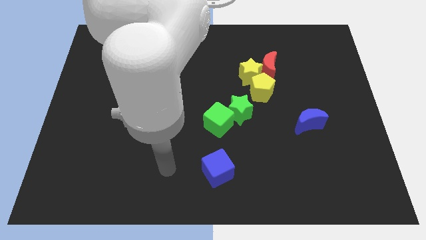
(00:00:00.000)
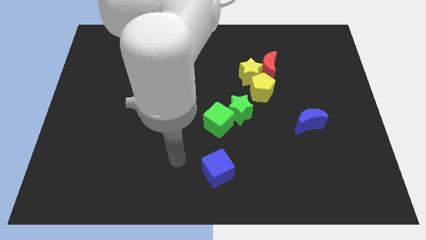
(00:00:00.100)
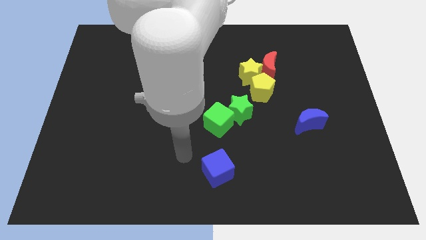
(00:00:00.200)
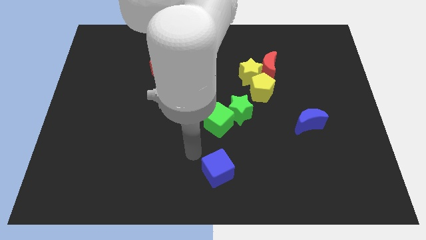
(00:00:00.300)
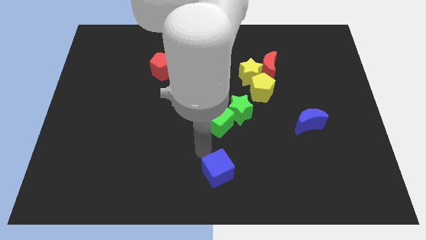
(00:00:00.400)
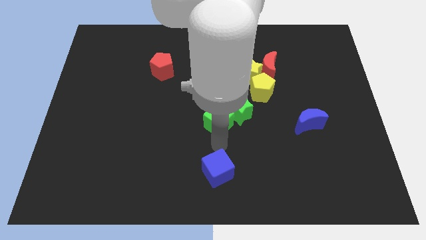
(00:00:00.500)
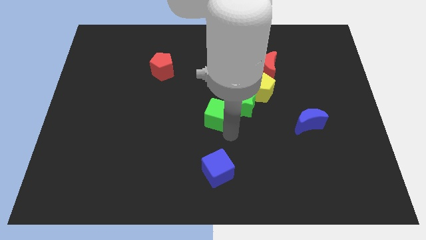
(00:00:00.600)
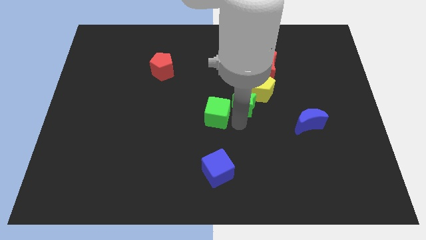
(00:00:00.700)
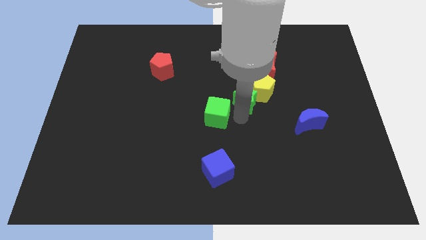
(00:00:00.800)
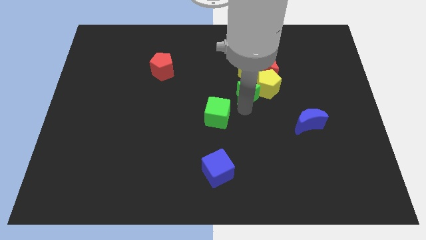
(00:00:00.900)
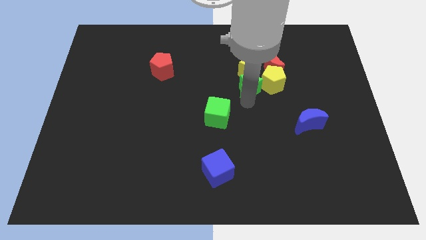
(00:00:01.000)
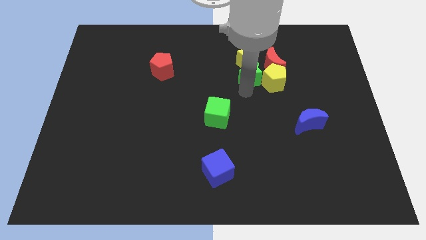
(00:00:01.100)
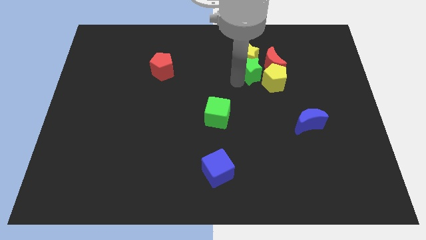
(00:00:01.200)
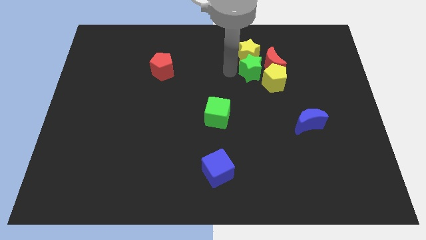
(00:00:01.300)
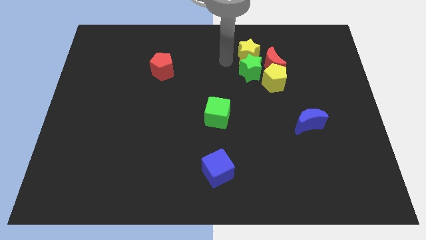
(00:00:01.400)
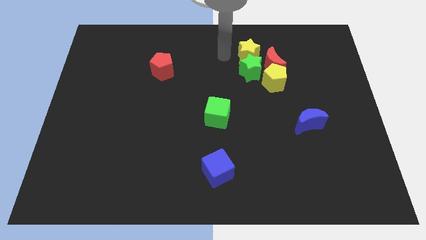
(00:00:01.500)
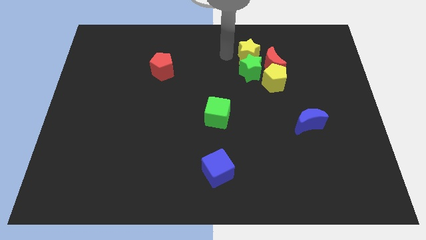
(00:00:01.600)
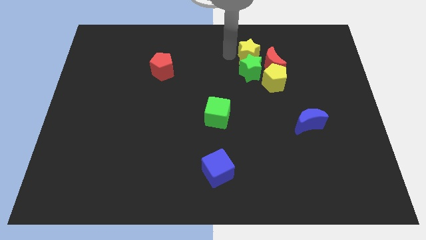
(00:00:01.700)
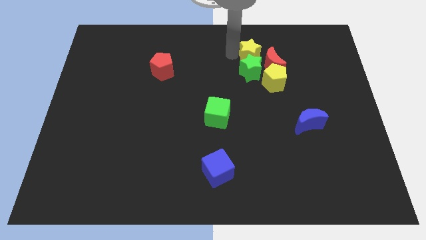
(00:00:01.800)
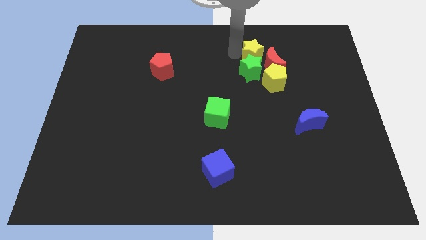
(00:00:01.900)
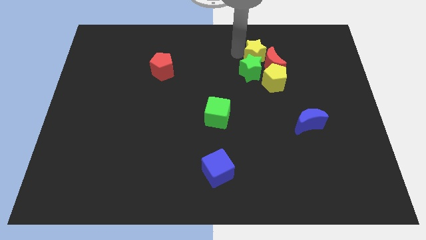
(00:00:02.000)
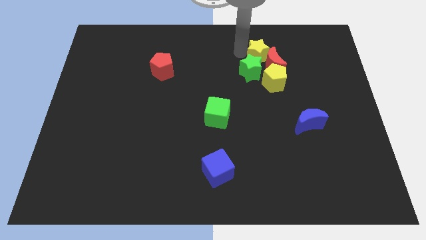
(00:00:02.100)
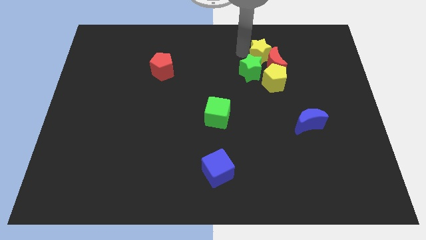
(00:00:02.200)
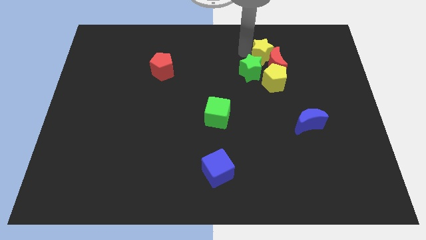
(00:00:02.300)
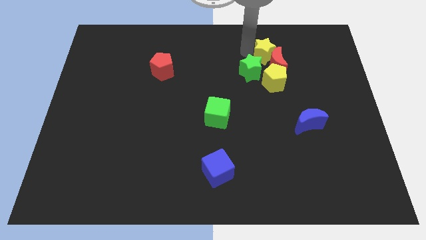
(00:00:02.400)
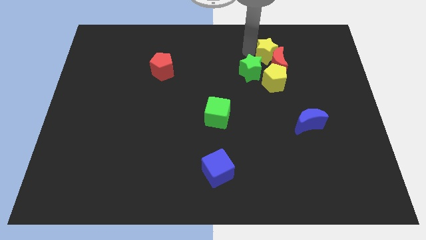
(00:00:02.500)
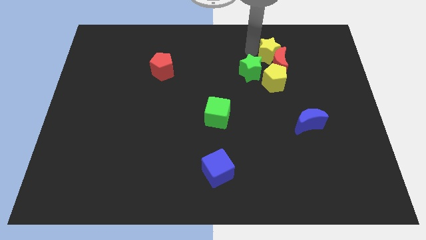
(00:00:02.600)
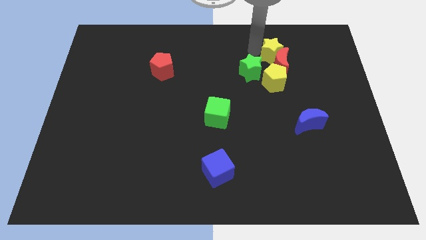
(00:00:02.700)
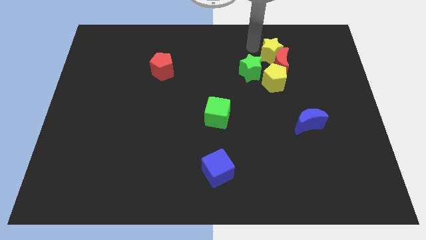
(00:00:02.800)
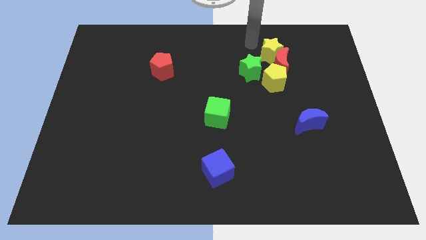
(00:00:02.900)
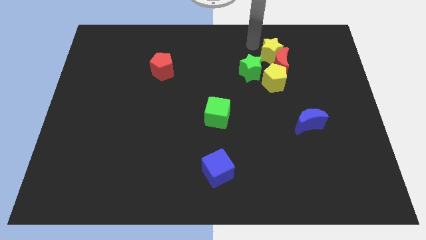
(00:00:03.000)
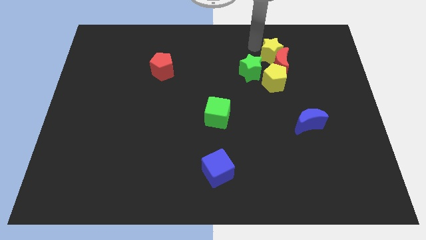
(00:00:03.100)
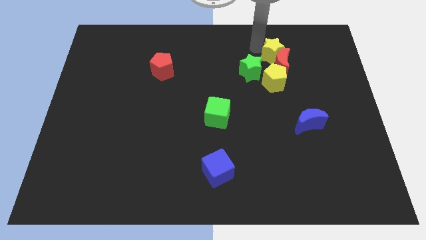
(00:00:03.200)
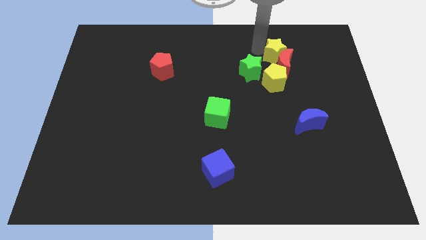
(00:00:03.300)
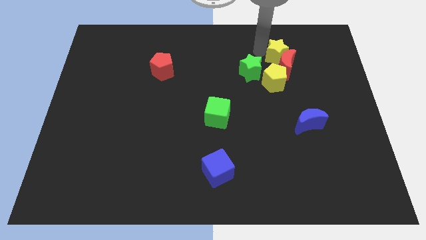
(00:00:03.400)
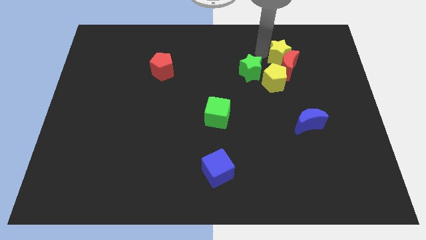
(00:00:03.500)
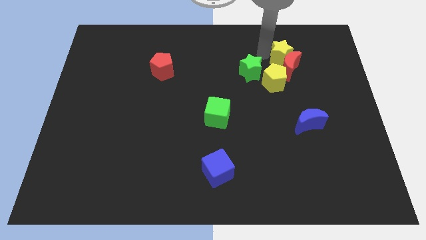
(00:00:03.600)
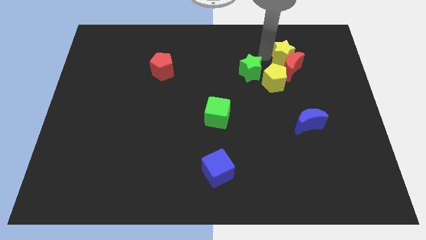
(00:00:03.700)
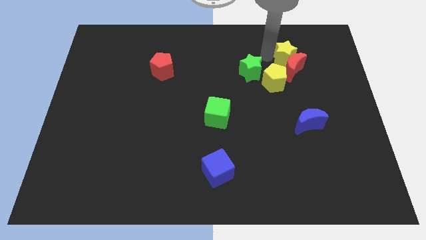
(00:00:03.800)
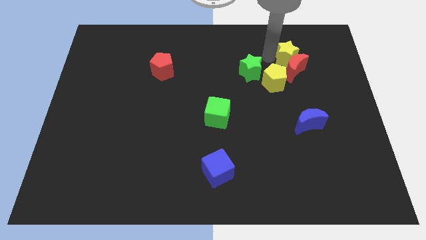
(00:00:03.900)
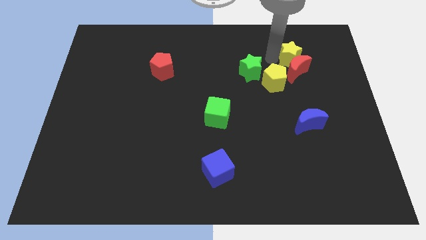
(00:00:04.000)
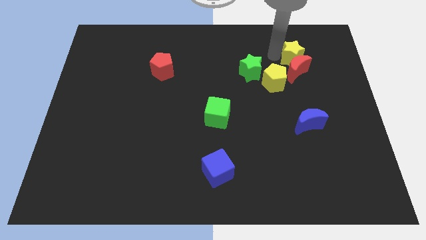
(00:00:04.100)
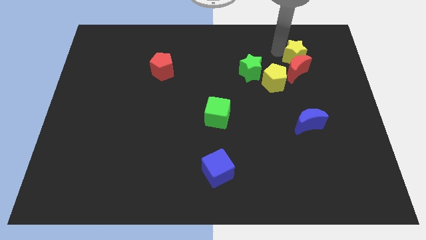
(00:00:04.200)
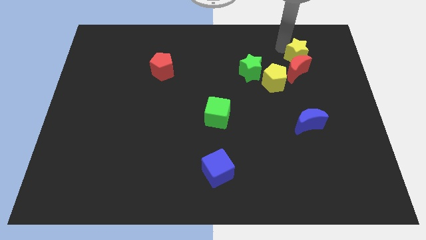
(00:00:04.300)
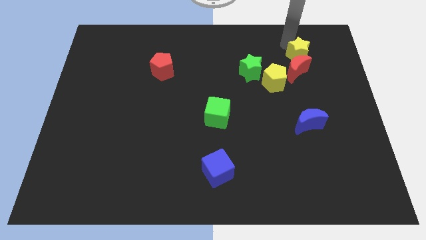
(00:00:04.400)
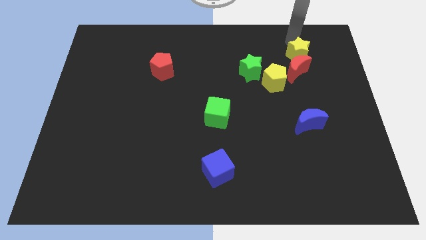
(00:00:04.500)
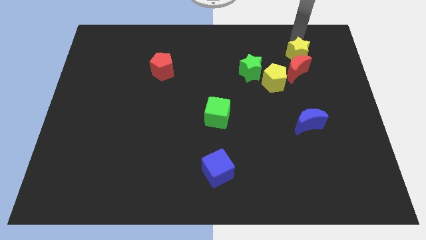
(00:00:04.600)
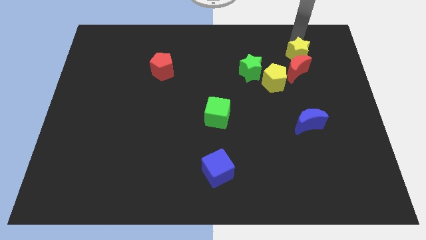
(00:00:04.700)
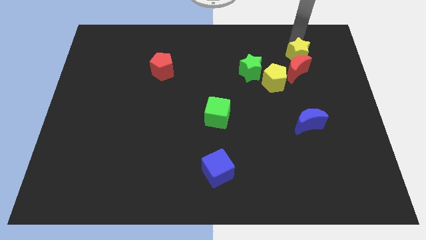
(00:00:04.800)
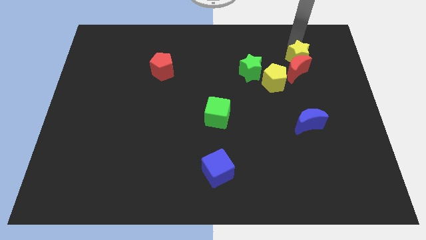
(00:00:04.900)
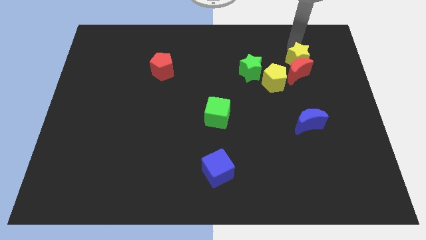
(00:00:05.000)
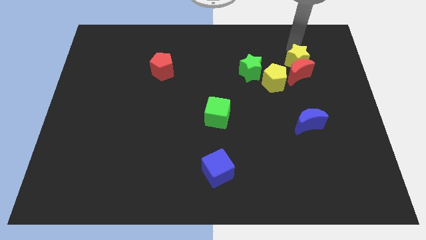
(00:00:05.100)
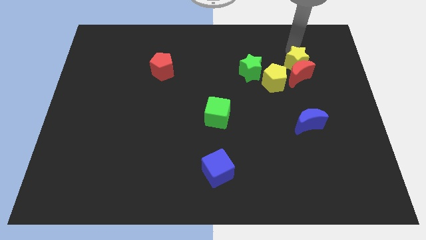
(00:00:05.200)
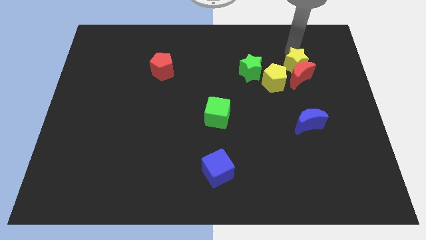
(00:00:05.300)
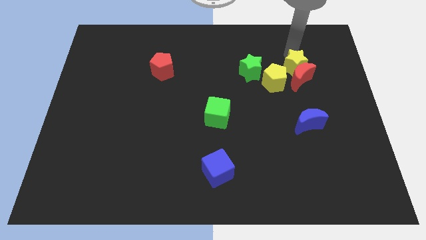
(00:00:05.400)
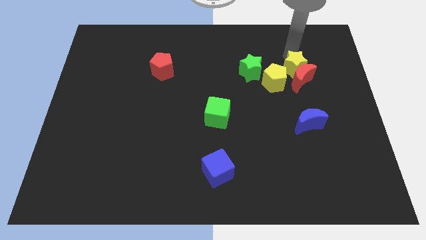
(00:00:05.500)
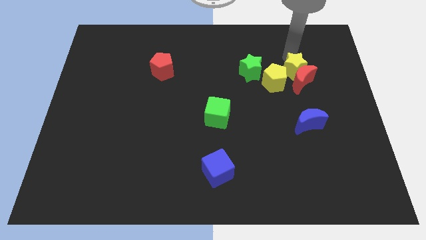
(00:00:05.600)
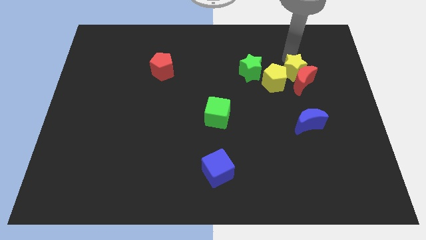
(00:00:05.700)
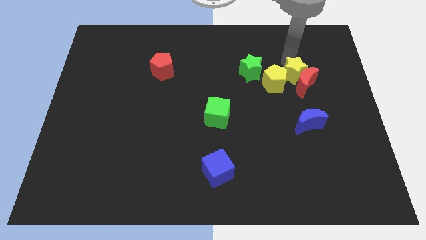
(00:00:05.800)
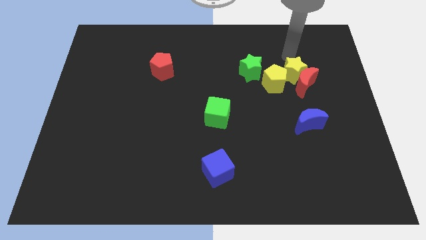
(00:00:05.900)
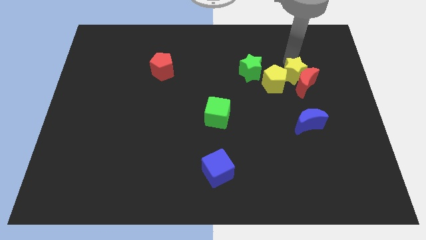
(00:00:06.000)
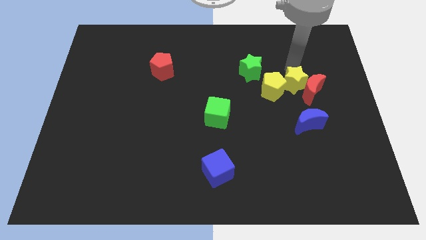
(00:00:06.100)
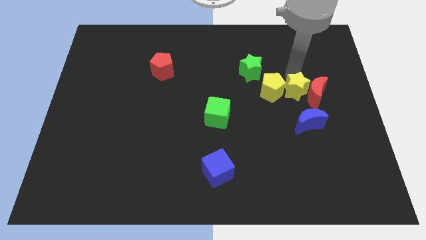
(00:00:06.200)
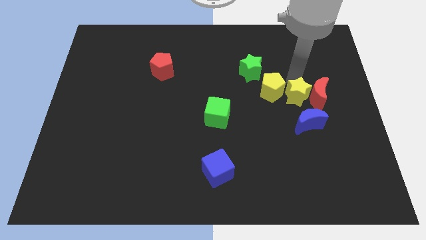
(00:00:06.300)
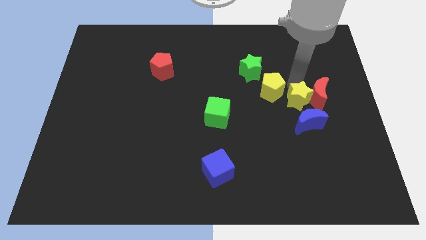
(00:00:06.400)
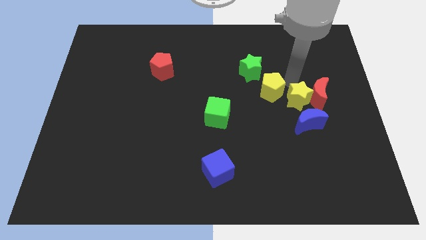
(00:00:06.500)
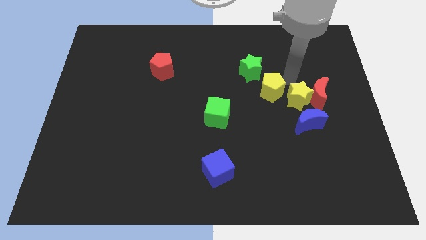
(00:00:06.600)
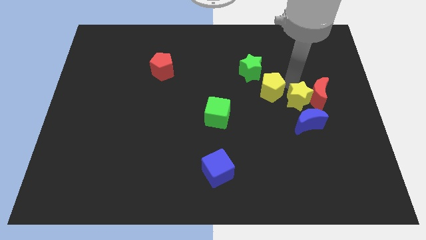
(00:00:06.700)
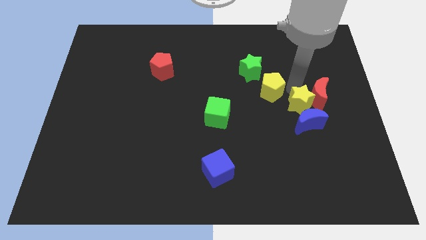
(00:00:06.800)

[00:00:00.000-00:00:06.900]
slide the yellow star towards the blue moon
